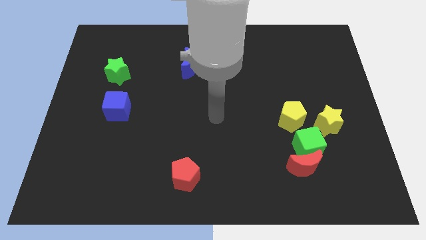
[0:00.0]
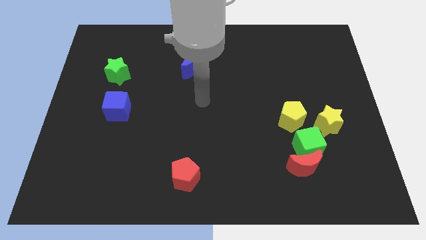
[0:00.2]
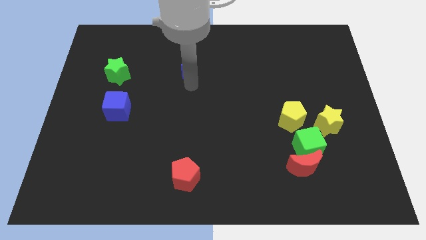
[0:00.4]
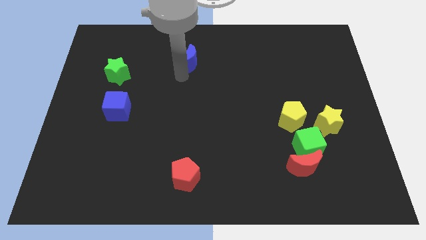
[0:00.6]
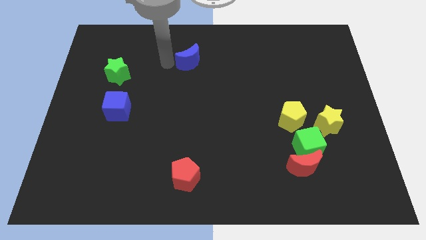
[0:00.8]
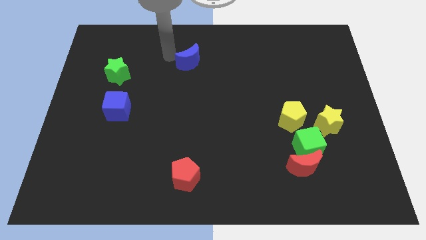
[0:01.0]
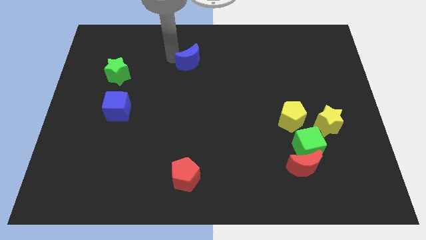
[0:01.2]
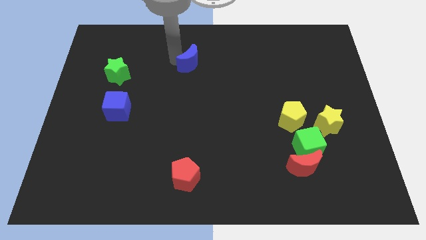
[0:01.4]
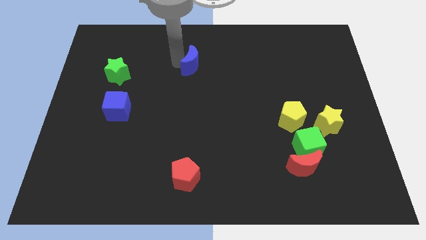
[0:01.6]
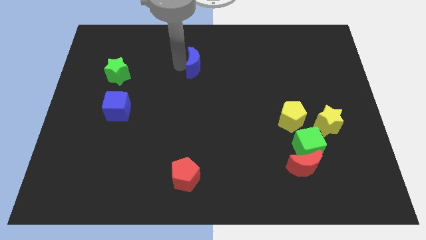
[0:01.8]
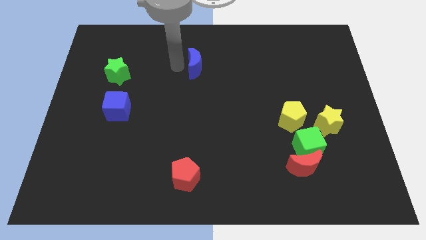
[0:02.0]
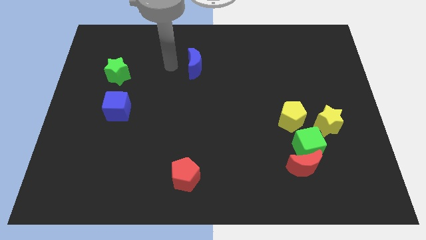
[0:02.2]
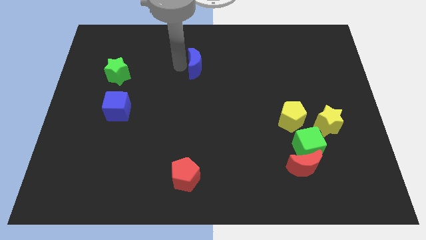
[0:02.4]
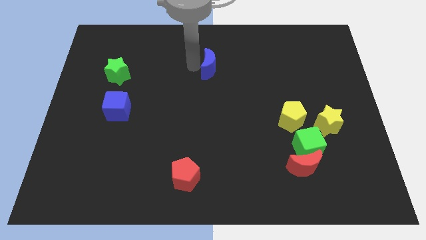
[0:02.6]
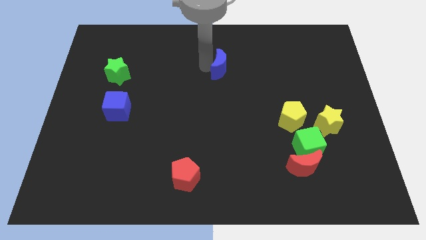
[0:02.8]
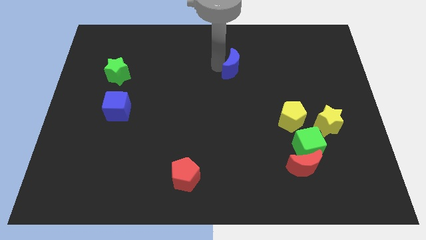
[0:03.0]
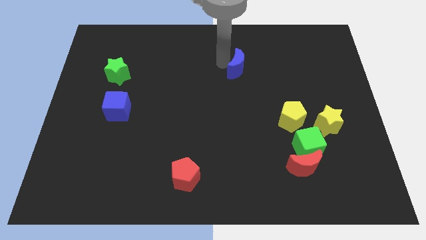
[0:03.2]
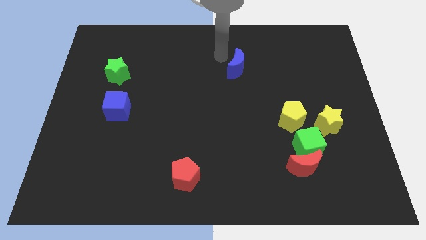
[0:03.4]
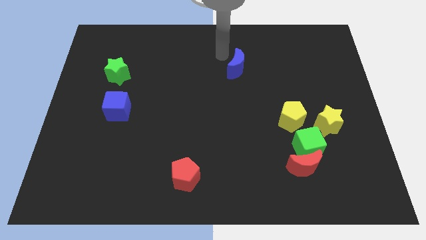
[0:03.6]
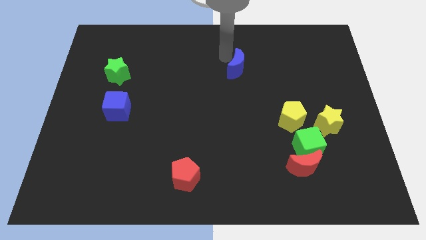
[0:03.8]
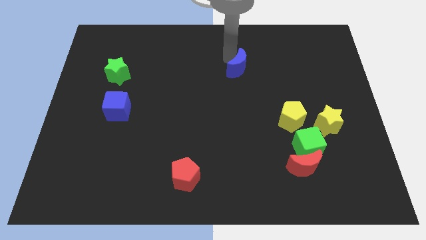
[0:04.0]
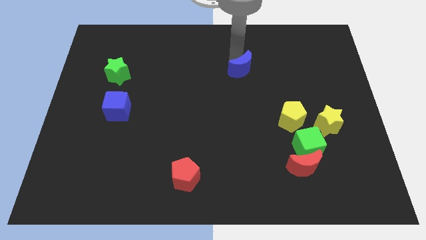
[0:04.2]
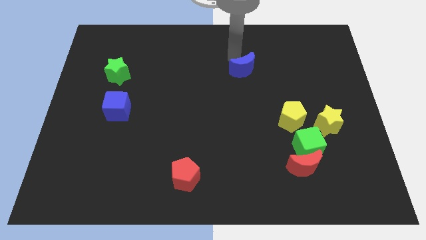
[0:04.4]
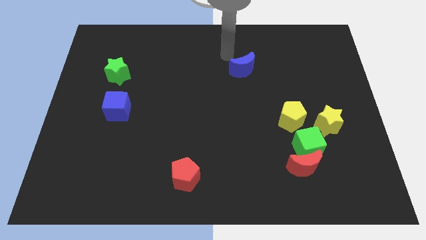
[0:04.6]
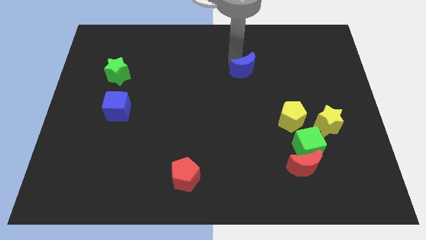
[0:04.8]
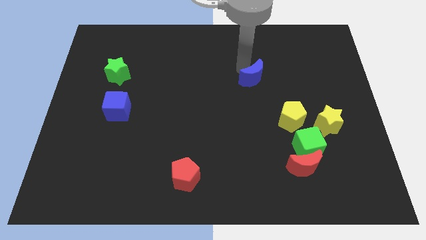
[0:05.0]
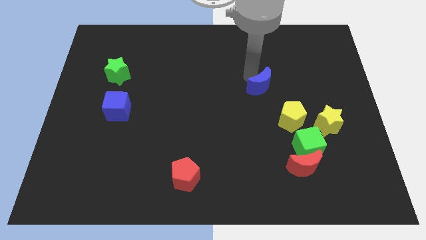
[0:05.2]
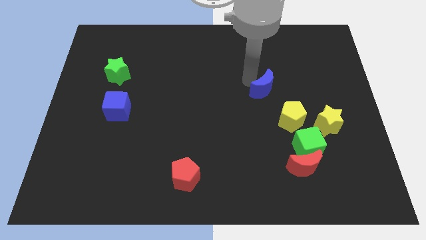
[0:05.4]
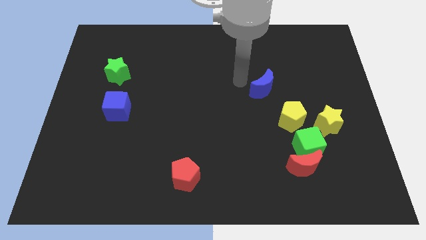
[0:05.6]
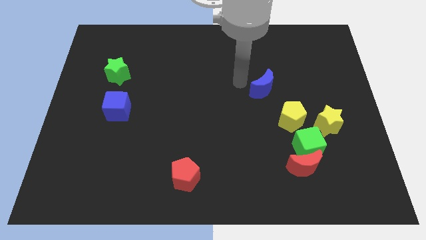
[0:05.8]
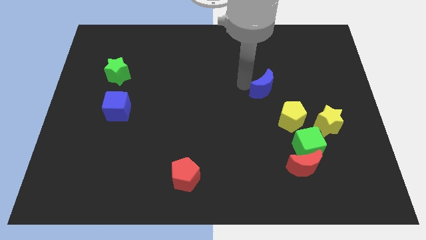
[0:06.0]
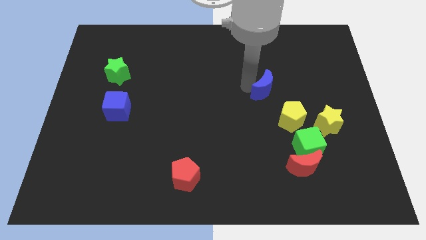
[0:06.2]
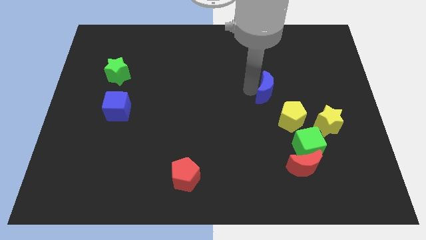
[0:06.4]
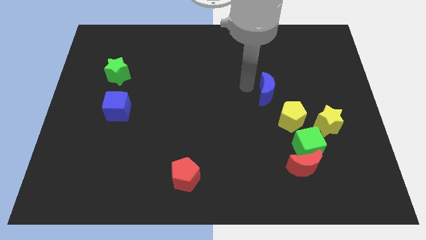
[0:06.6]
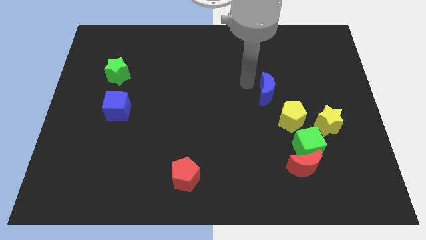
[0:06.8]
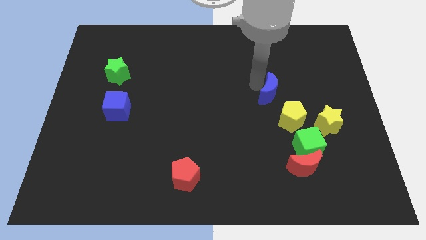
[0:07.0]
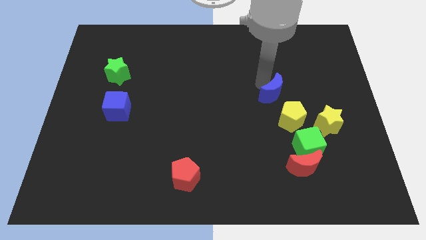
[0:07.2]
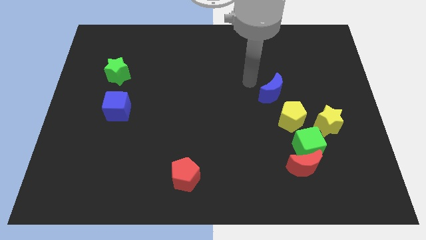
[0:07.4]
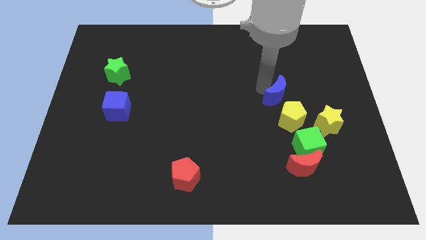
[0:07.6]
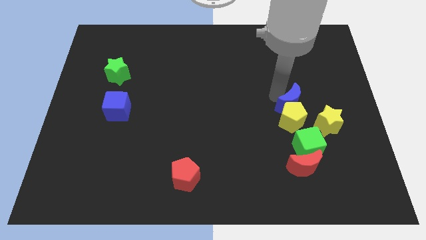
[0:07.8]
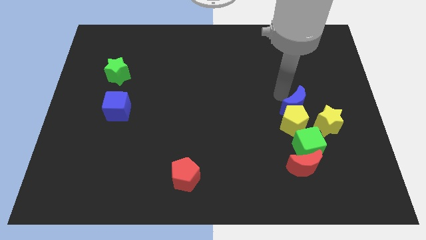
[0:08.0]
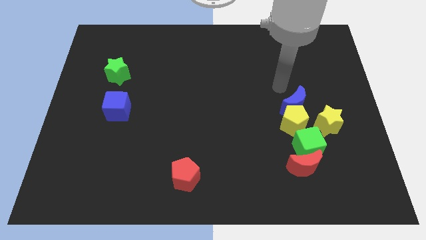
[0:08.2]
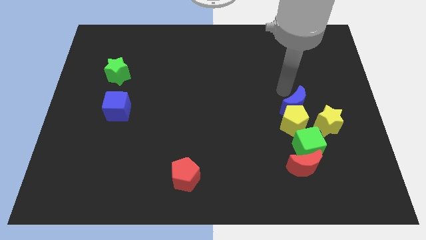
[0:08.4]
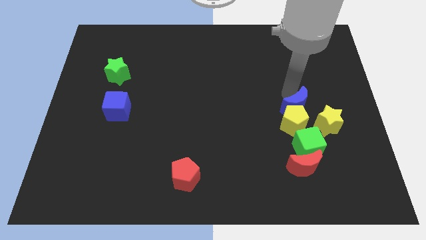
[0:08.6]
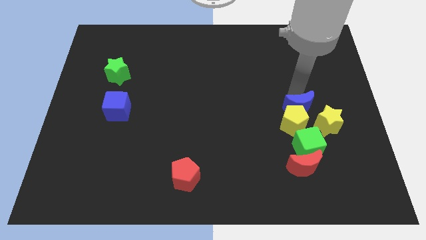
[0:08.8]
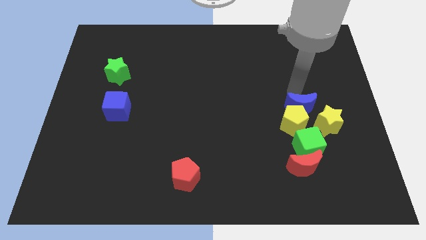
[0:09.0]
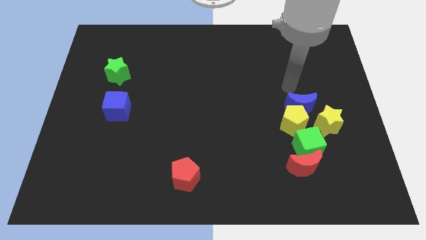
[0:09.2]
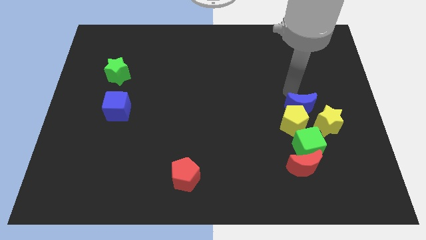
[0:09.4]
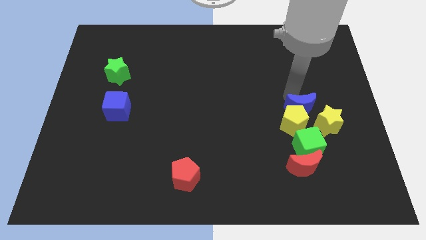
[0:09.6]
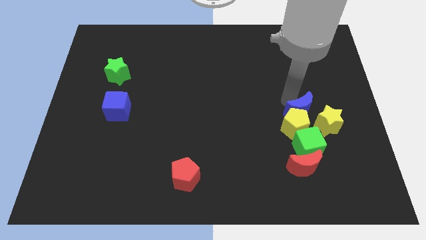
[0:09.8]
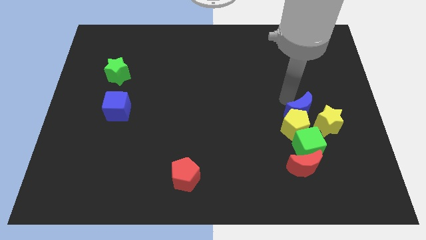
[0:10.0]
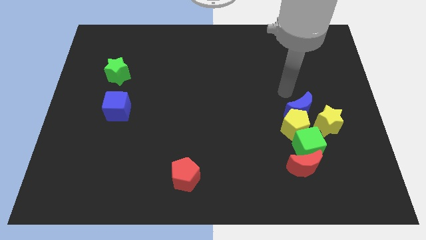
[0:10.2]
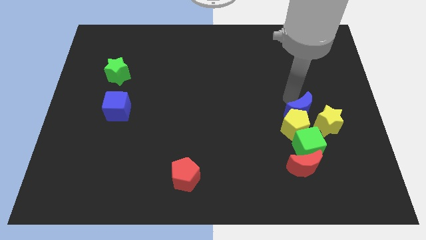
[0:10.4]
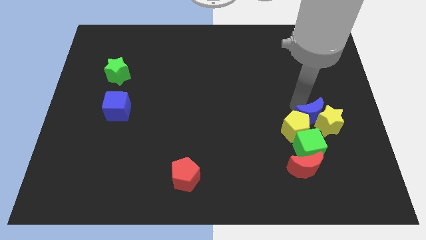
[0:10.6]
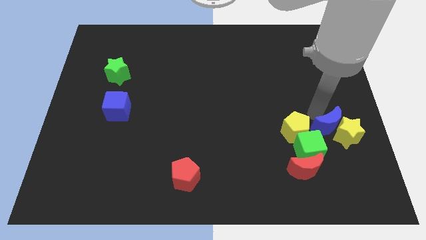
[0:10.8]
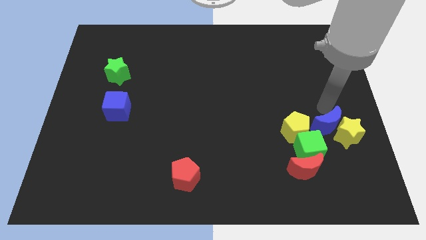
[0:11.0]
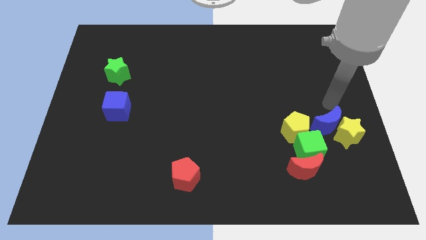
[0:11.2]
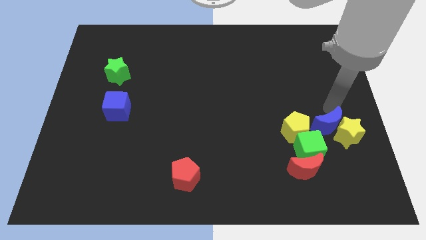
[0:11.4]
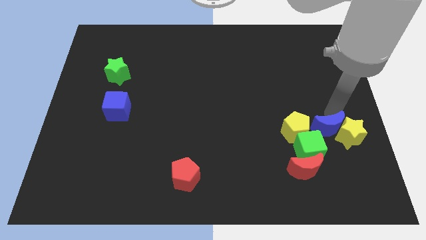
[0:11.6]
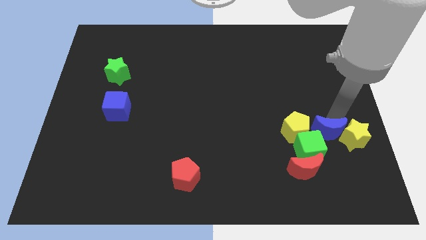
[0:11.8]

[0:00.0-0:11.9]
put the blue moon to the bottom right of the yellow pentagon

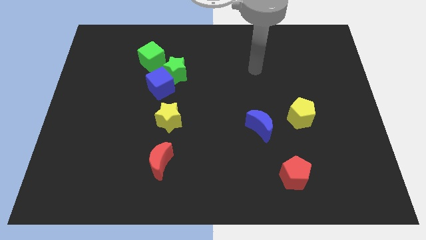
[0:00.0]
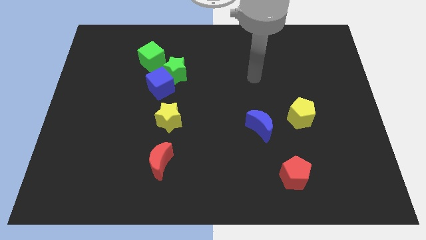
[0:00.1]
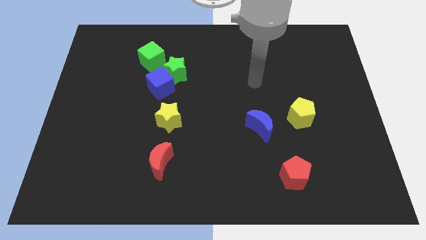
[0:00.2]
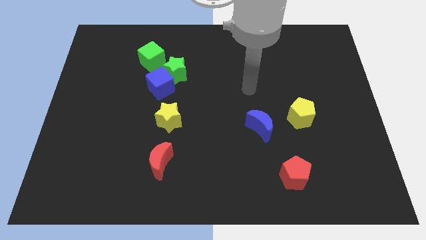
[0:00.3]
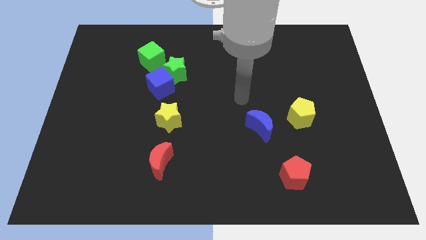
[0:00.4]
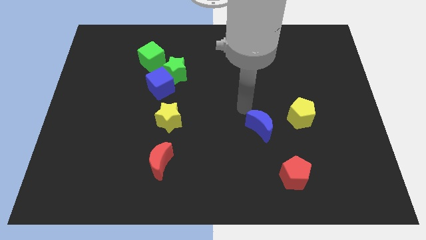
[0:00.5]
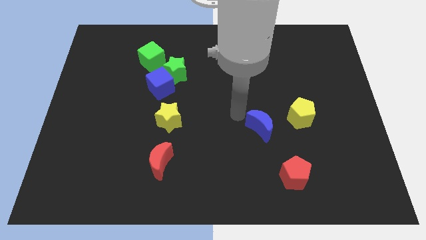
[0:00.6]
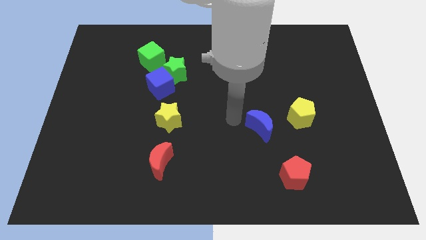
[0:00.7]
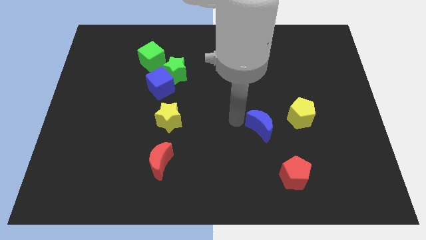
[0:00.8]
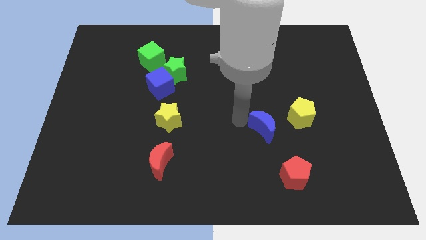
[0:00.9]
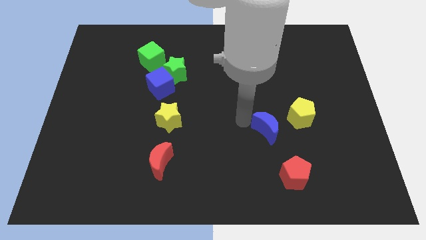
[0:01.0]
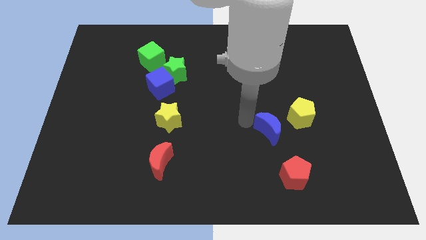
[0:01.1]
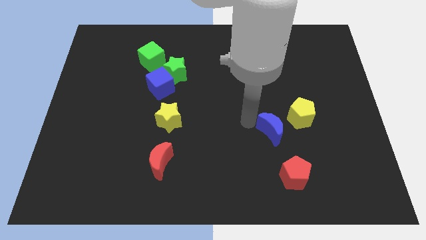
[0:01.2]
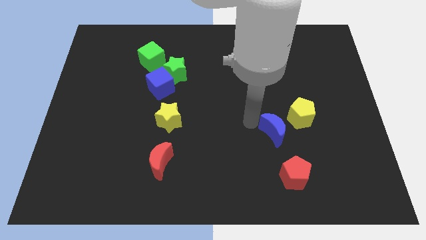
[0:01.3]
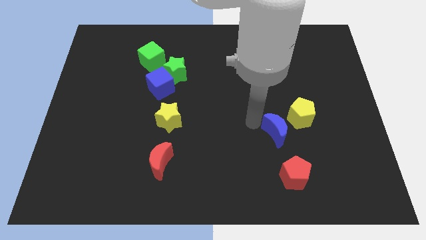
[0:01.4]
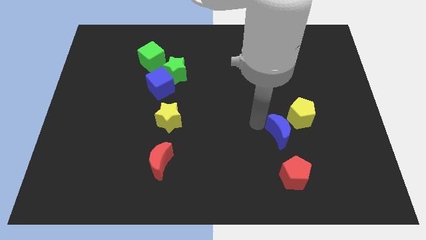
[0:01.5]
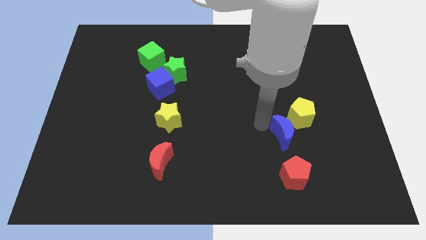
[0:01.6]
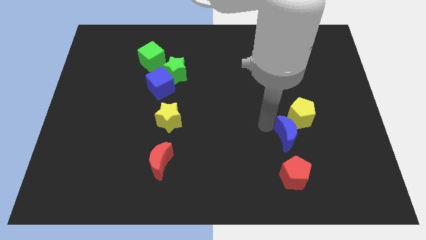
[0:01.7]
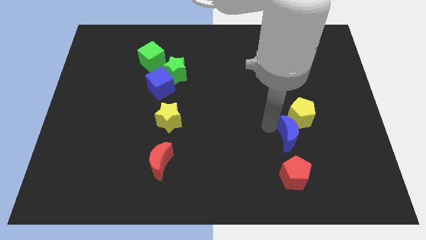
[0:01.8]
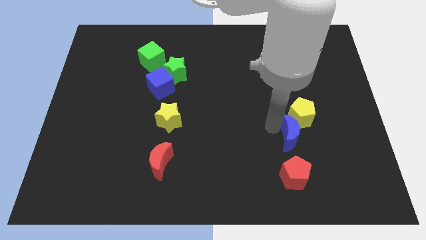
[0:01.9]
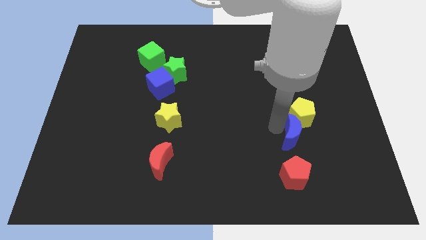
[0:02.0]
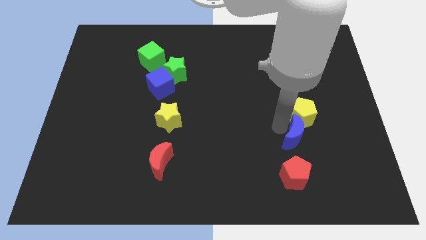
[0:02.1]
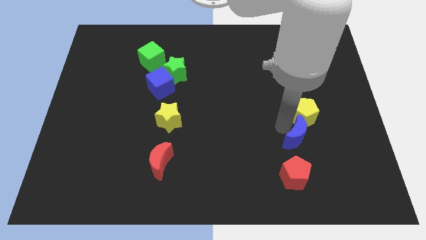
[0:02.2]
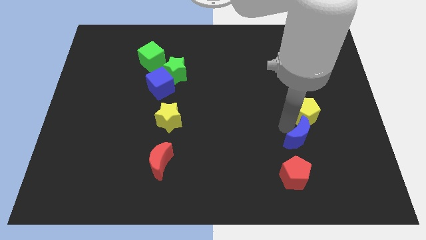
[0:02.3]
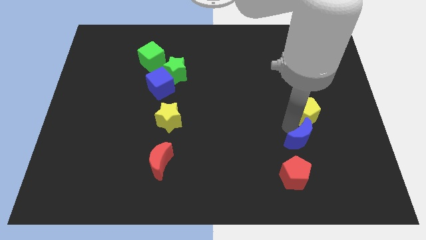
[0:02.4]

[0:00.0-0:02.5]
move the blue moon diagonally up and to the right of the red pentagon
